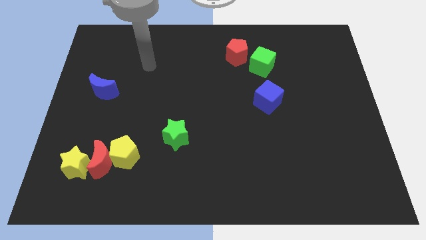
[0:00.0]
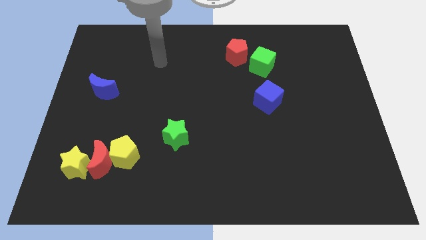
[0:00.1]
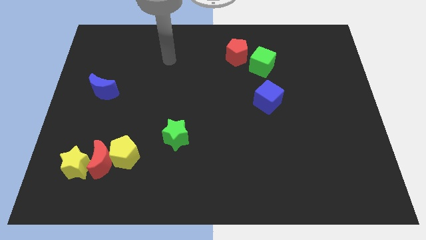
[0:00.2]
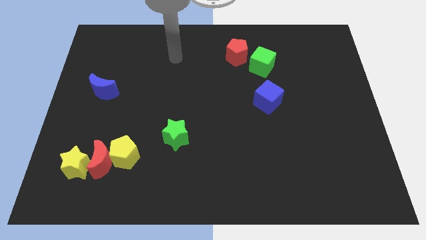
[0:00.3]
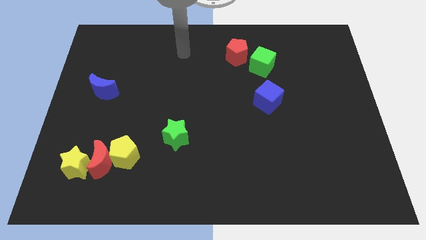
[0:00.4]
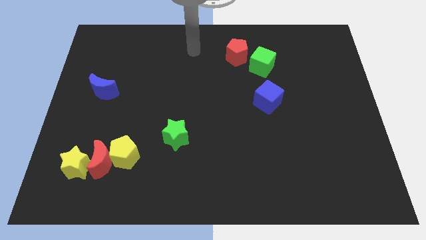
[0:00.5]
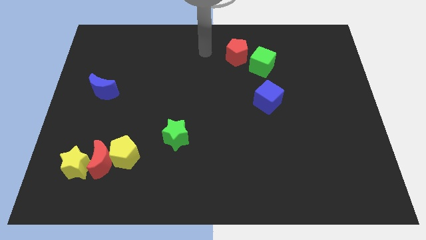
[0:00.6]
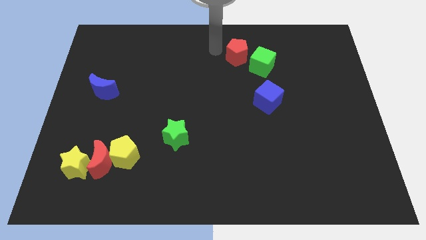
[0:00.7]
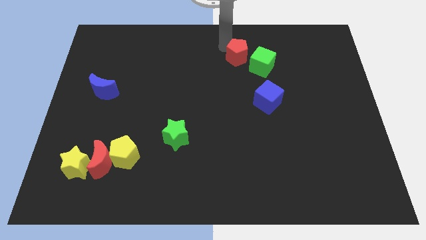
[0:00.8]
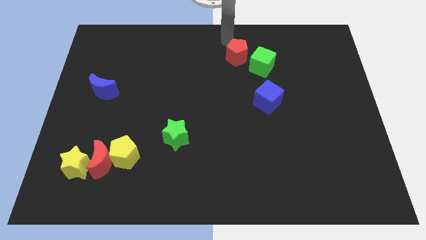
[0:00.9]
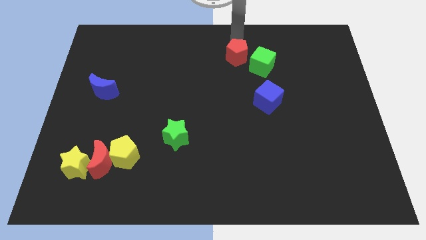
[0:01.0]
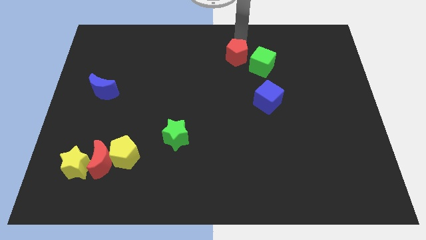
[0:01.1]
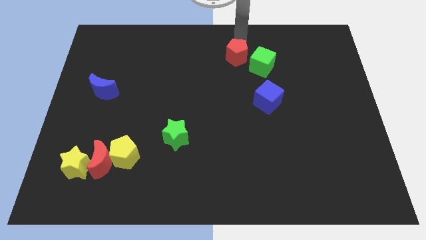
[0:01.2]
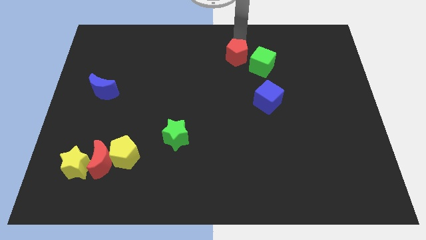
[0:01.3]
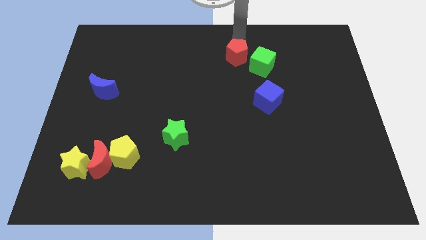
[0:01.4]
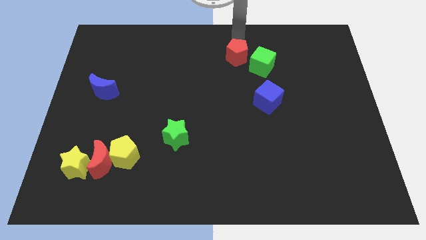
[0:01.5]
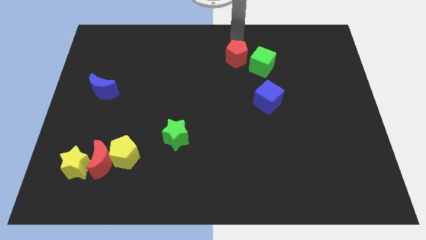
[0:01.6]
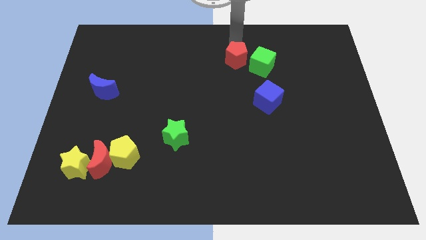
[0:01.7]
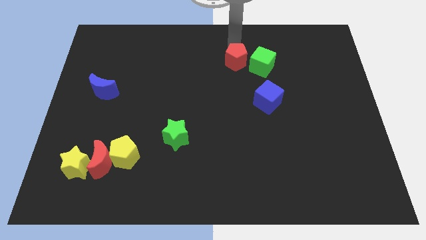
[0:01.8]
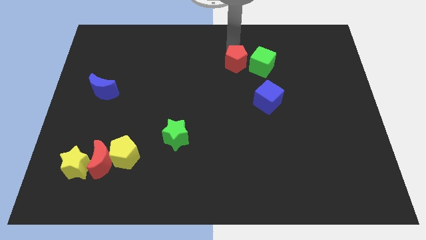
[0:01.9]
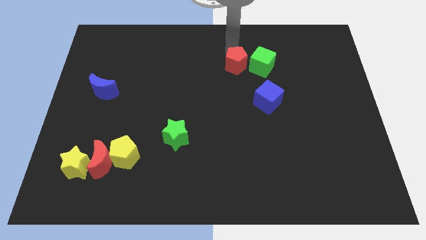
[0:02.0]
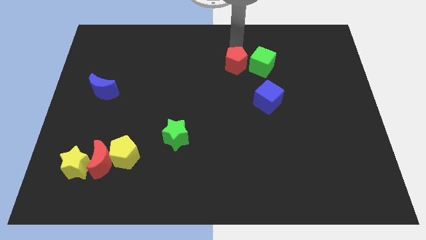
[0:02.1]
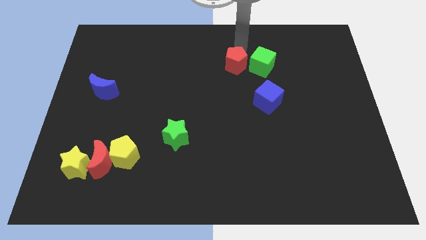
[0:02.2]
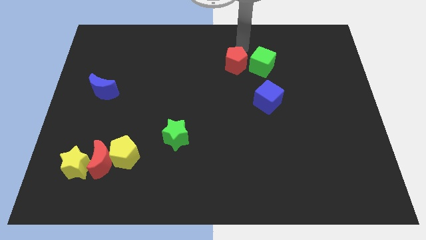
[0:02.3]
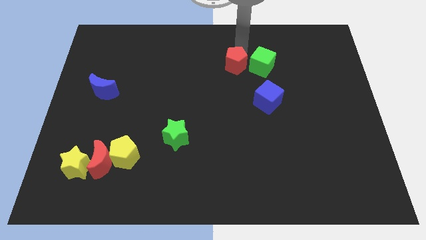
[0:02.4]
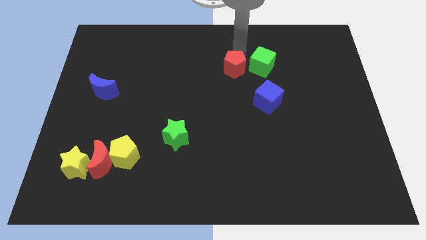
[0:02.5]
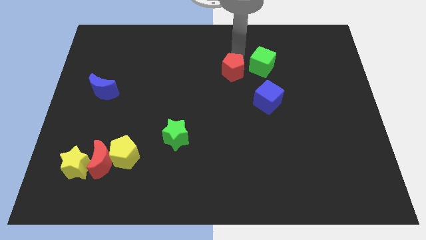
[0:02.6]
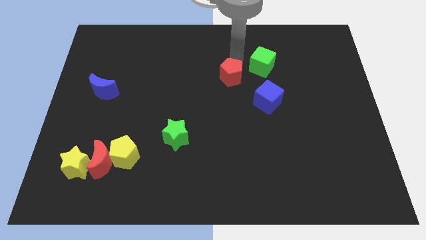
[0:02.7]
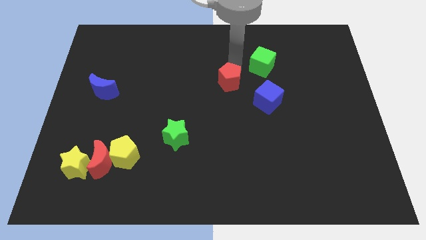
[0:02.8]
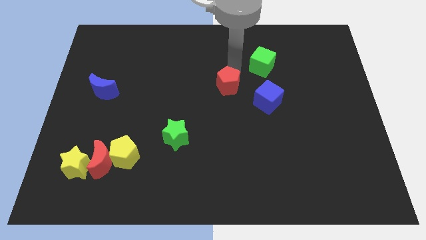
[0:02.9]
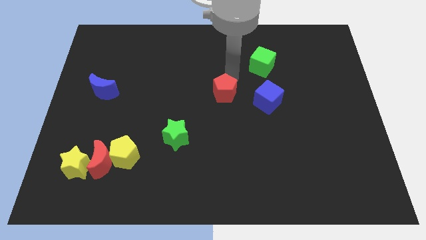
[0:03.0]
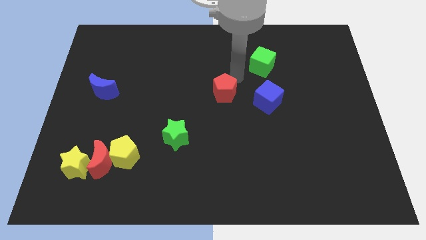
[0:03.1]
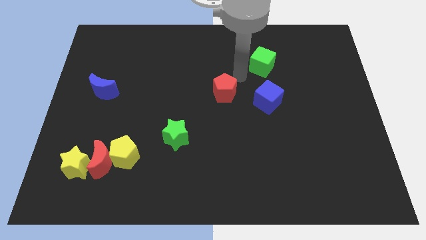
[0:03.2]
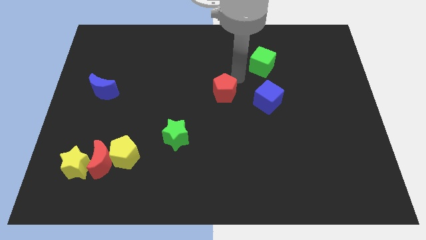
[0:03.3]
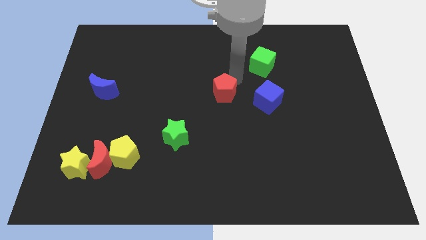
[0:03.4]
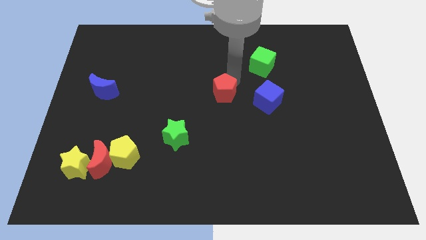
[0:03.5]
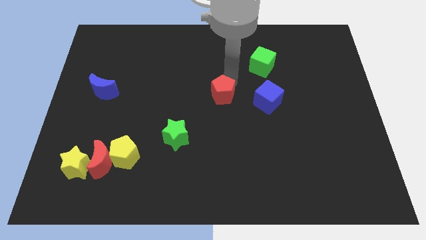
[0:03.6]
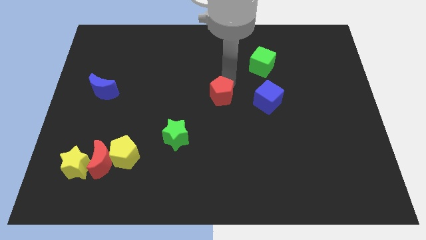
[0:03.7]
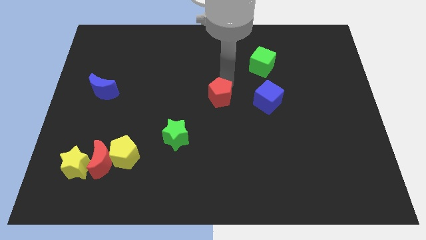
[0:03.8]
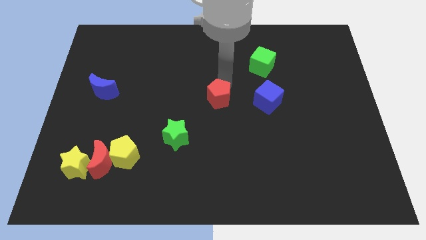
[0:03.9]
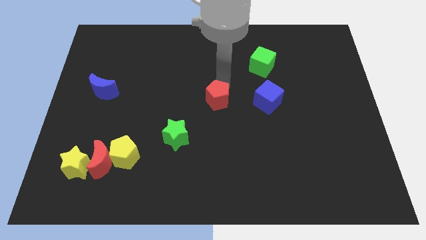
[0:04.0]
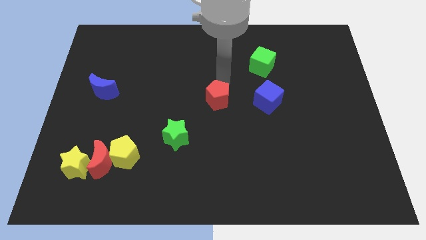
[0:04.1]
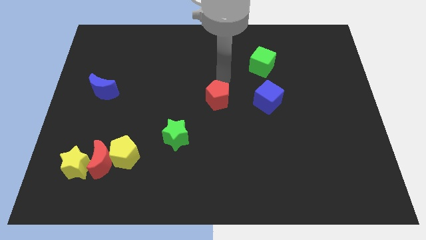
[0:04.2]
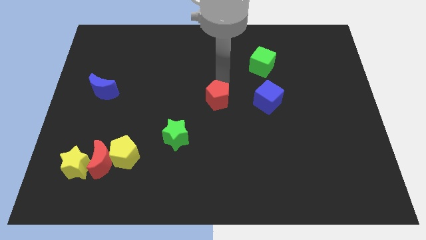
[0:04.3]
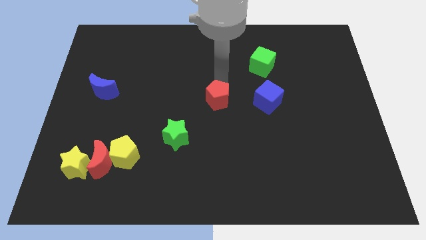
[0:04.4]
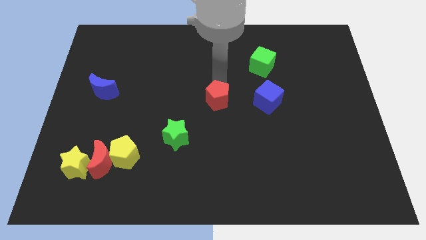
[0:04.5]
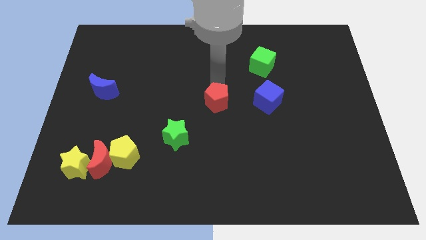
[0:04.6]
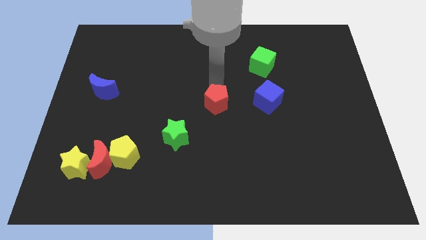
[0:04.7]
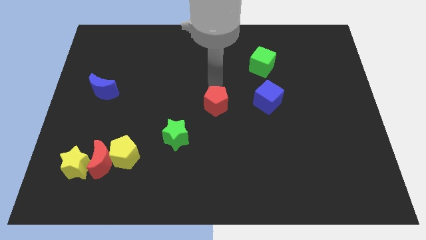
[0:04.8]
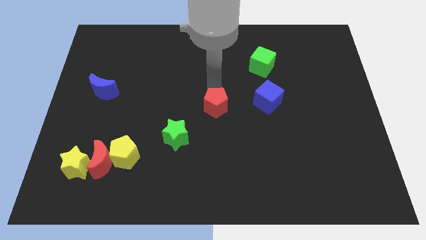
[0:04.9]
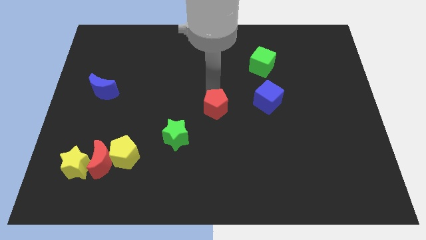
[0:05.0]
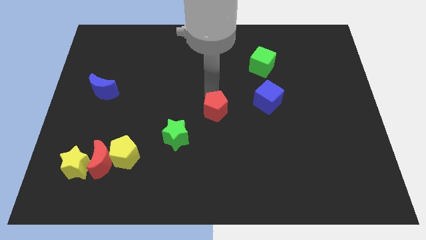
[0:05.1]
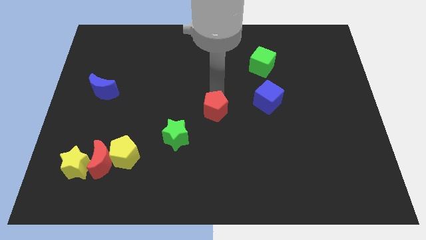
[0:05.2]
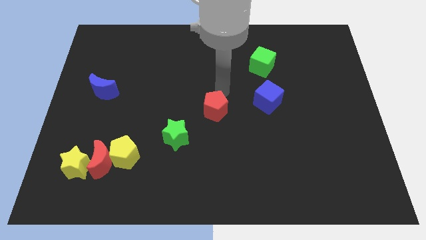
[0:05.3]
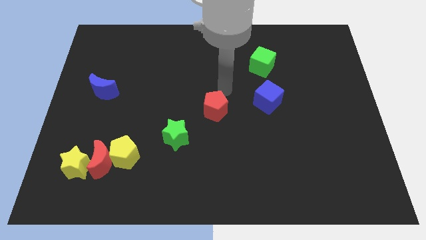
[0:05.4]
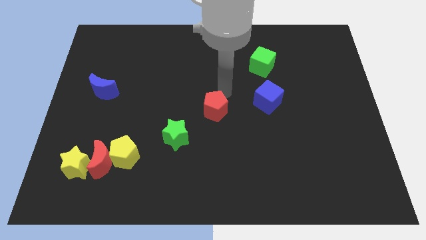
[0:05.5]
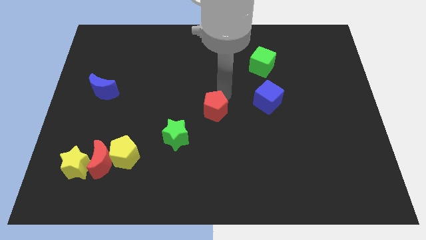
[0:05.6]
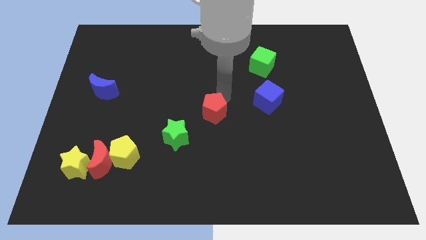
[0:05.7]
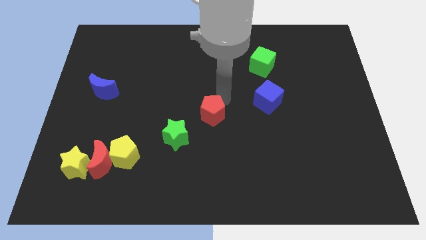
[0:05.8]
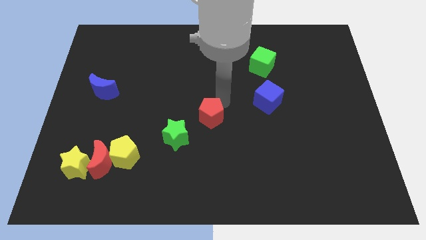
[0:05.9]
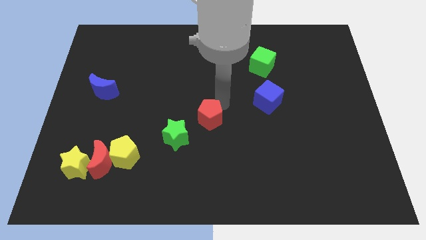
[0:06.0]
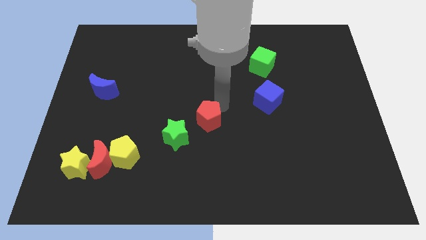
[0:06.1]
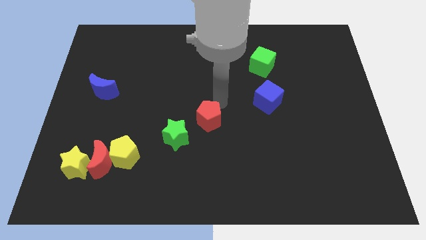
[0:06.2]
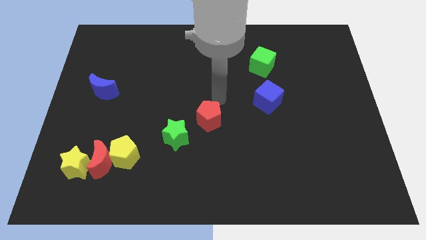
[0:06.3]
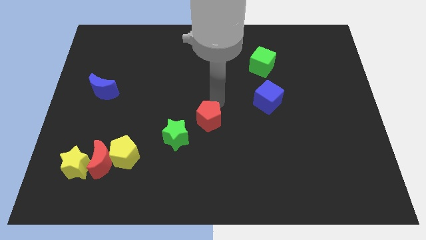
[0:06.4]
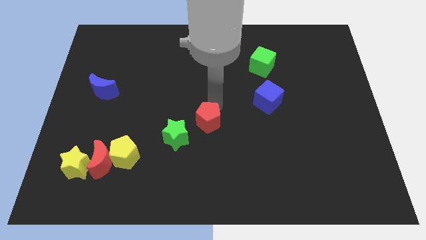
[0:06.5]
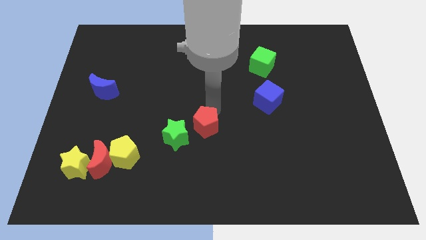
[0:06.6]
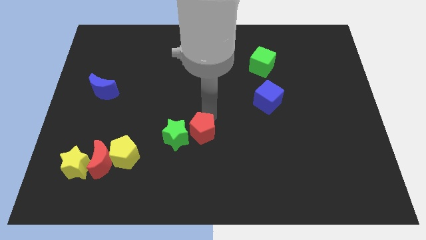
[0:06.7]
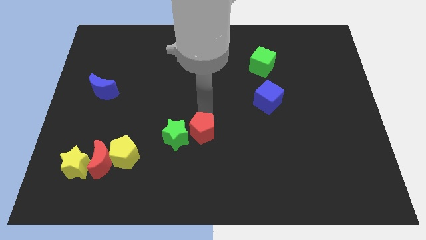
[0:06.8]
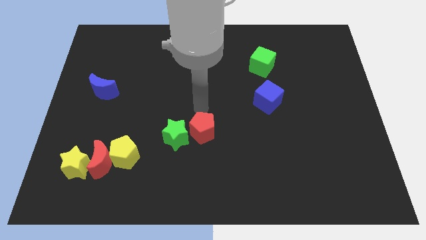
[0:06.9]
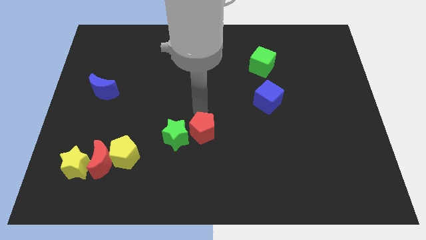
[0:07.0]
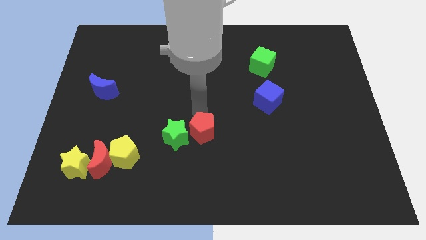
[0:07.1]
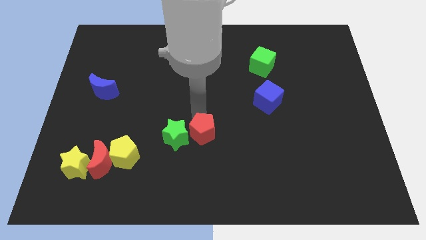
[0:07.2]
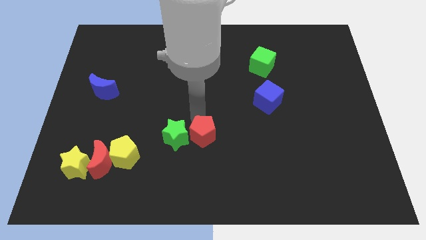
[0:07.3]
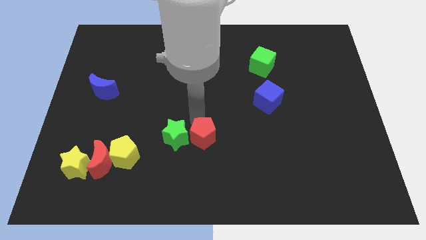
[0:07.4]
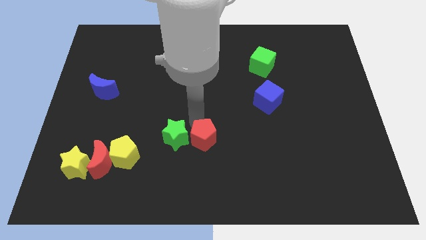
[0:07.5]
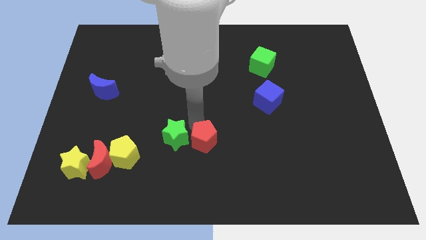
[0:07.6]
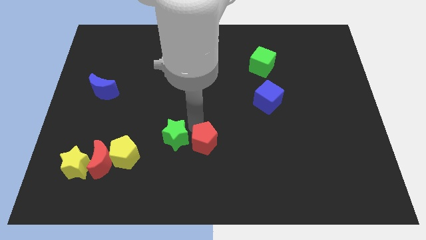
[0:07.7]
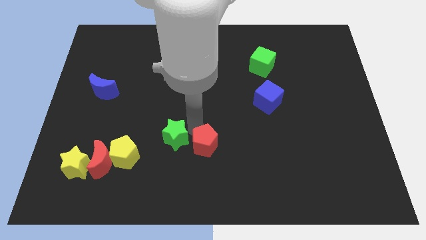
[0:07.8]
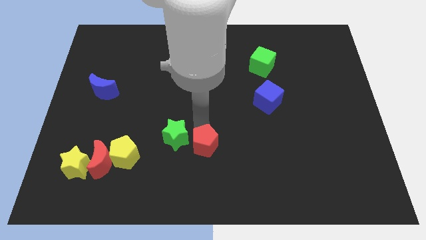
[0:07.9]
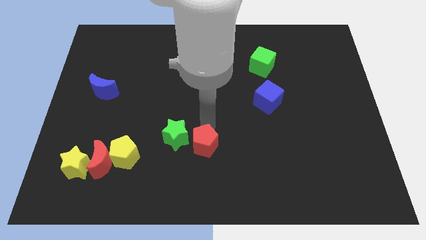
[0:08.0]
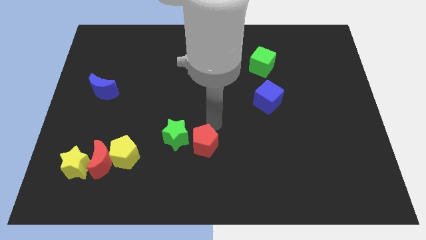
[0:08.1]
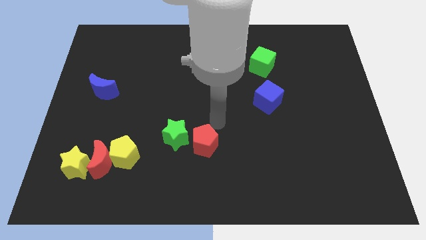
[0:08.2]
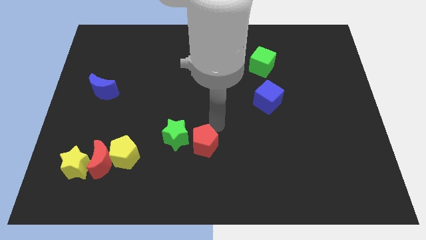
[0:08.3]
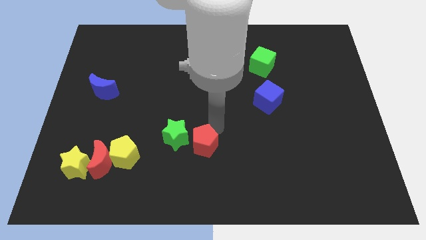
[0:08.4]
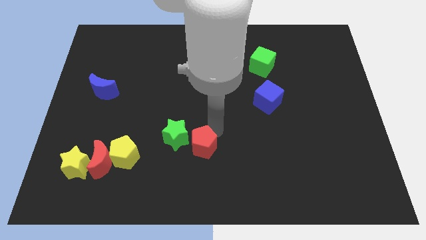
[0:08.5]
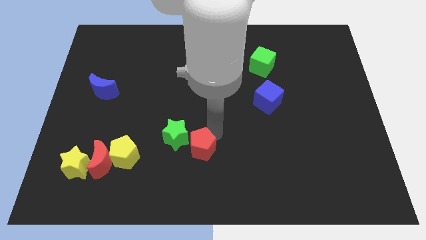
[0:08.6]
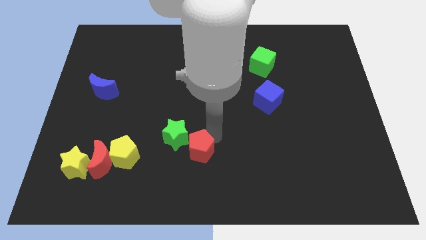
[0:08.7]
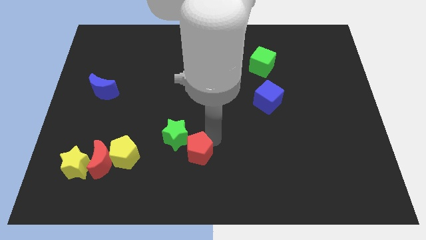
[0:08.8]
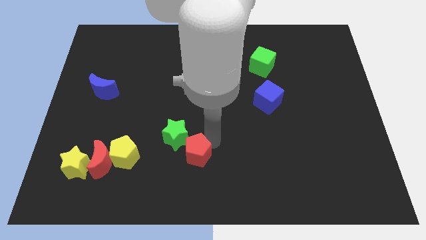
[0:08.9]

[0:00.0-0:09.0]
put the red pentagon below the green star
